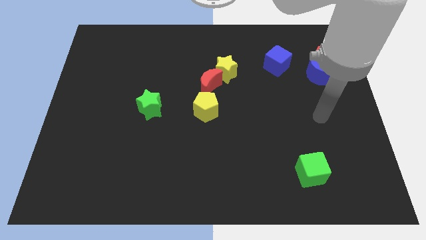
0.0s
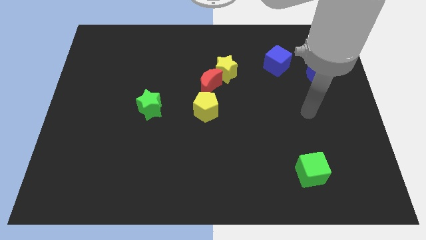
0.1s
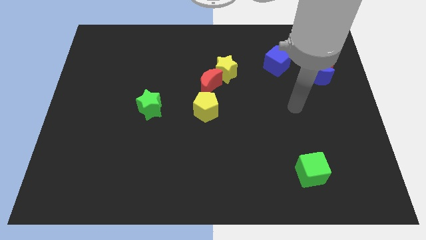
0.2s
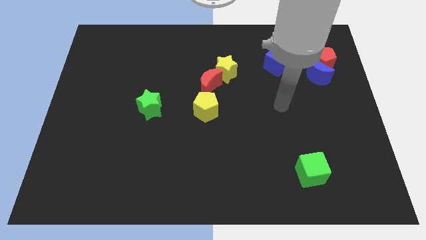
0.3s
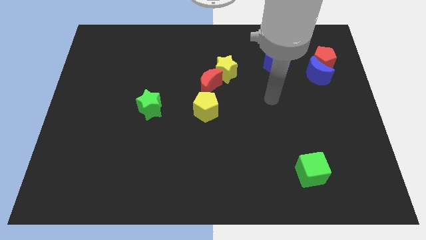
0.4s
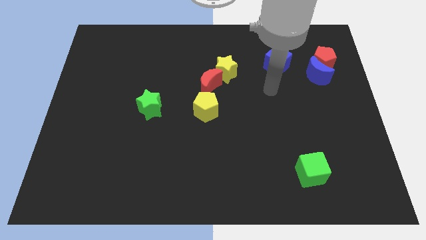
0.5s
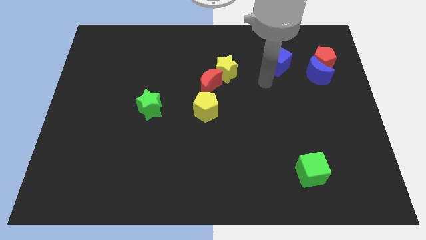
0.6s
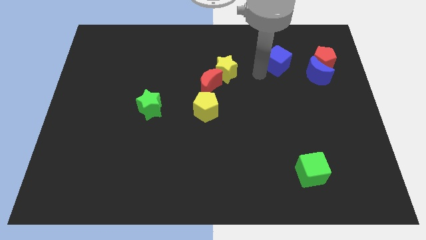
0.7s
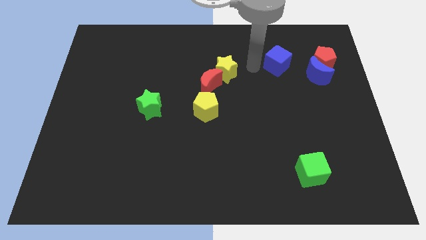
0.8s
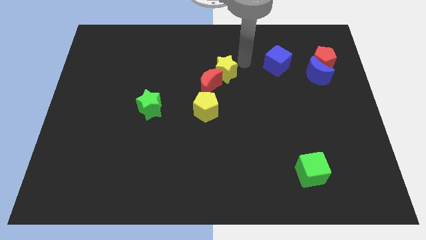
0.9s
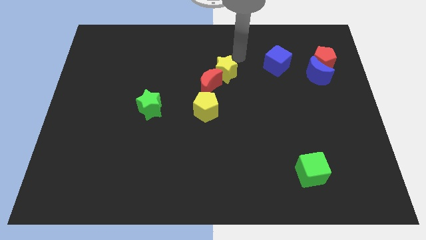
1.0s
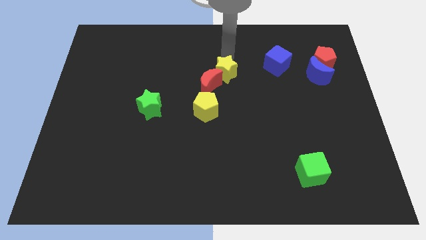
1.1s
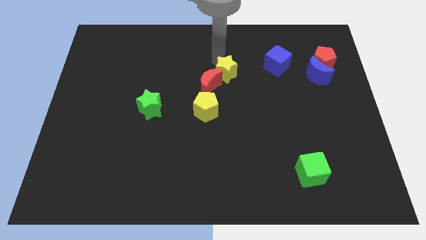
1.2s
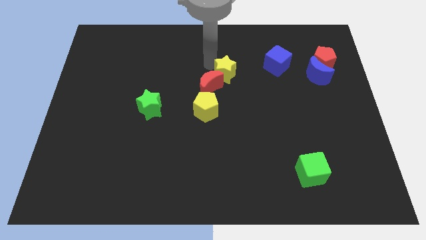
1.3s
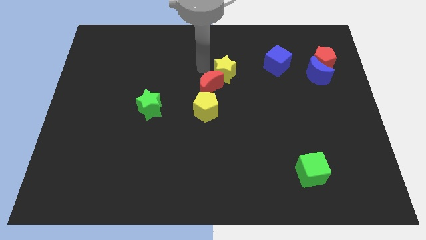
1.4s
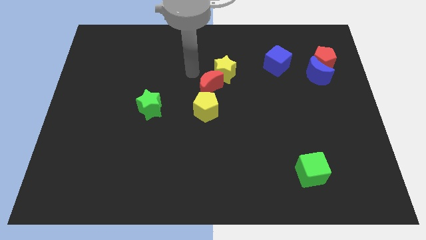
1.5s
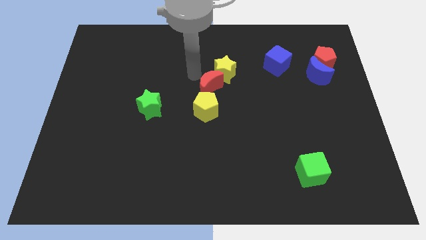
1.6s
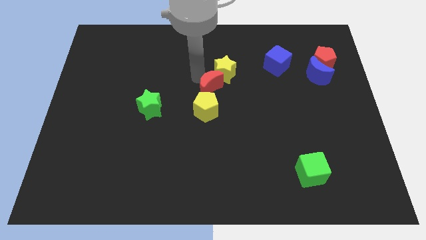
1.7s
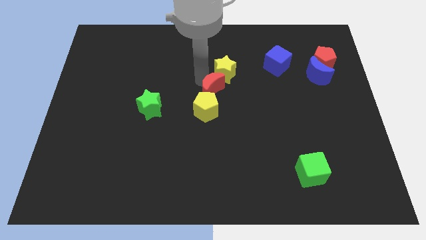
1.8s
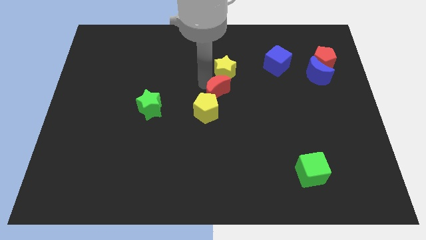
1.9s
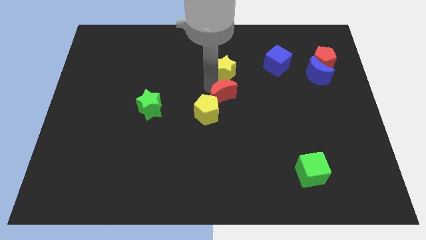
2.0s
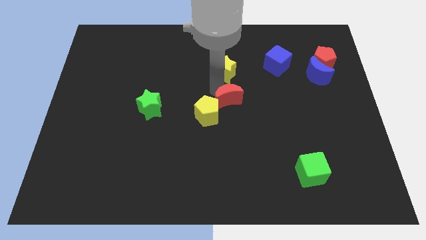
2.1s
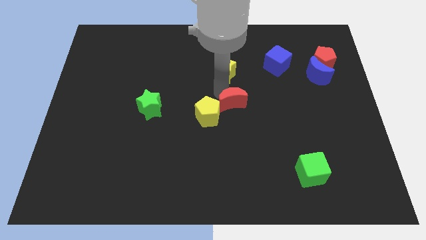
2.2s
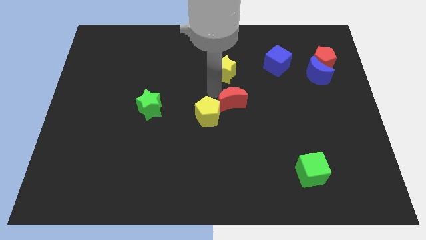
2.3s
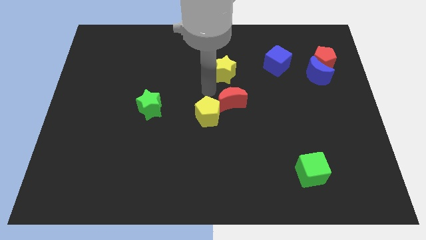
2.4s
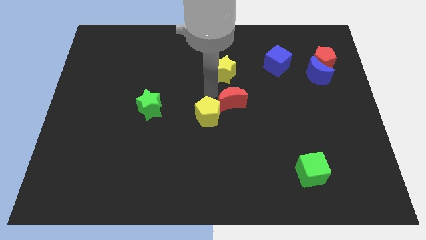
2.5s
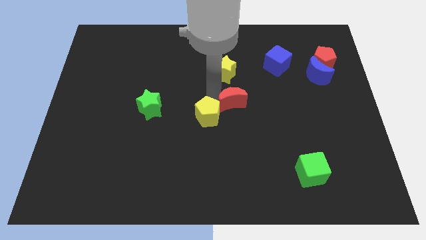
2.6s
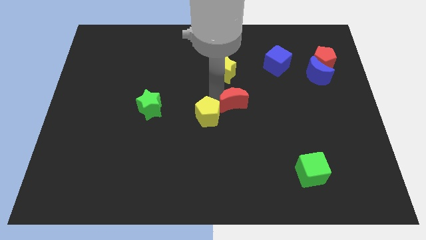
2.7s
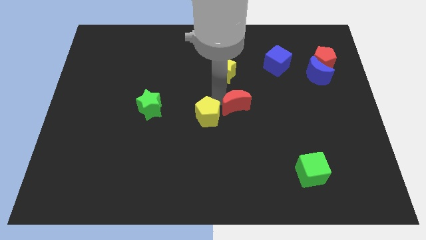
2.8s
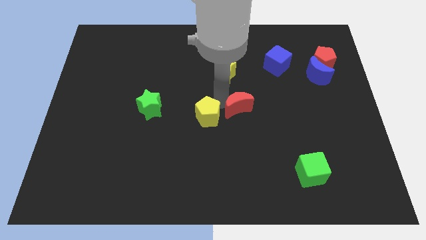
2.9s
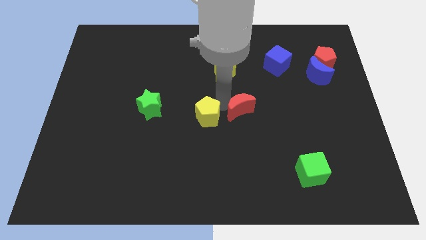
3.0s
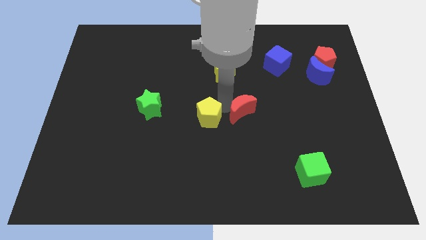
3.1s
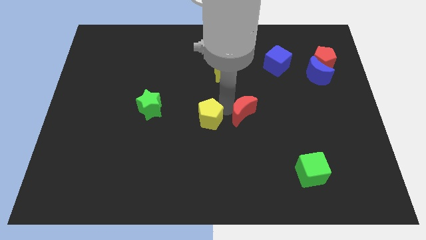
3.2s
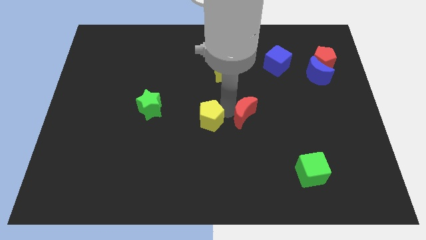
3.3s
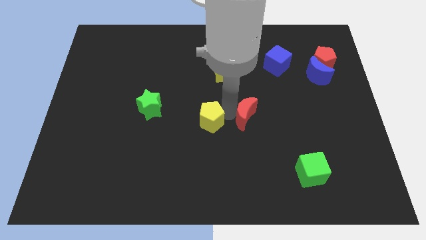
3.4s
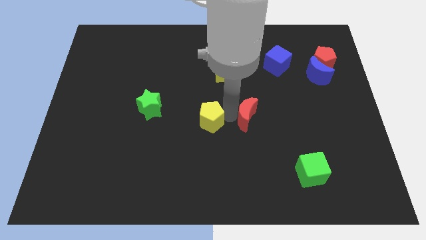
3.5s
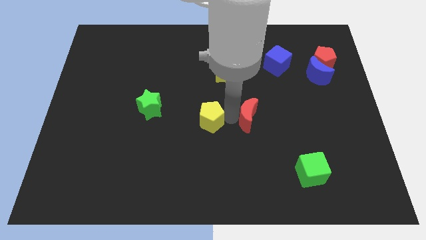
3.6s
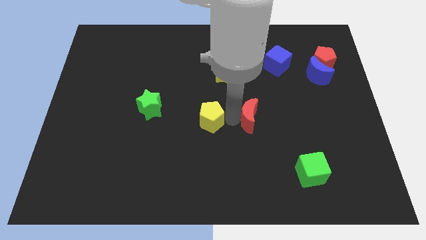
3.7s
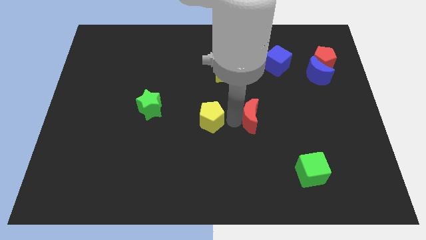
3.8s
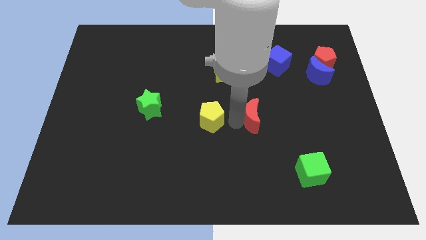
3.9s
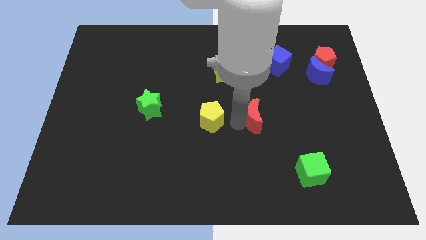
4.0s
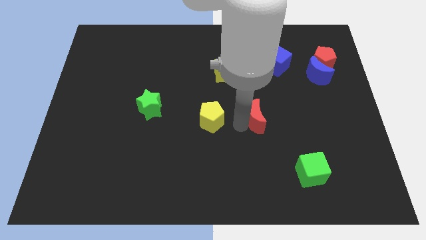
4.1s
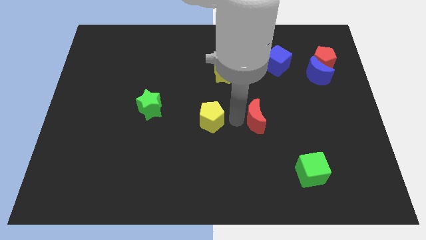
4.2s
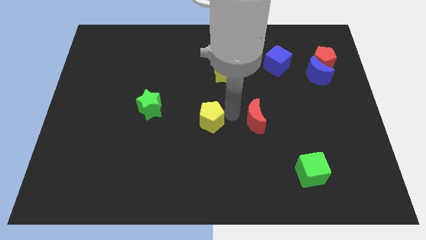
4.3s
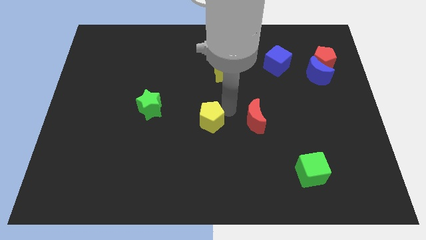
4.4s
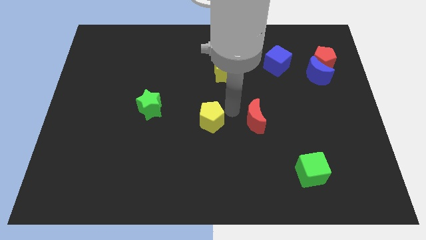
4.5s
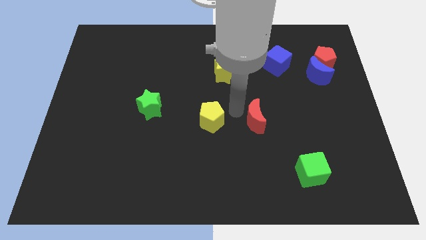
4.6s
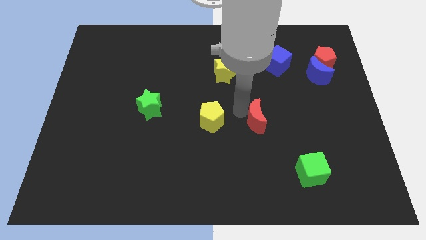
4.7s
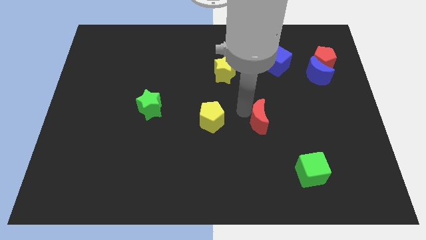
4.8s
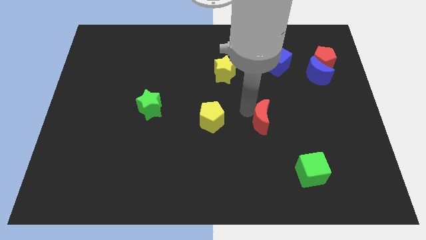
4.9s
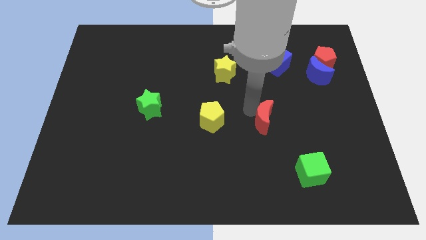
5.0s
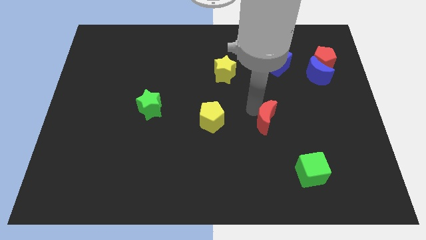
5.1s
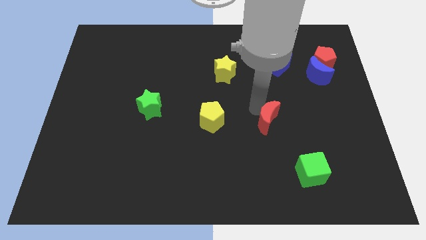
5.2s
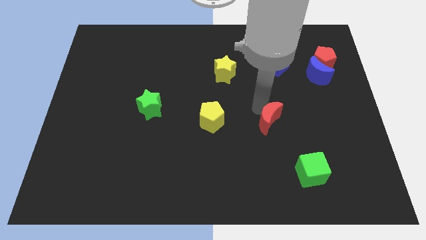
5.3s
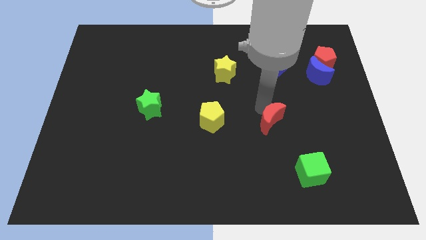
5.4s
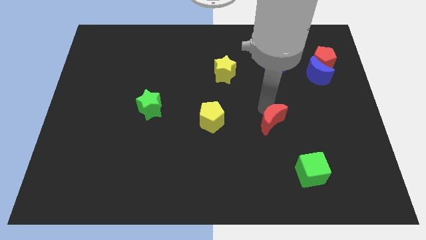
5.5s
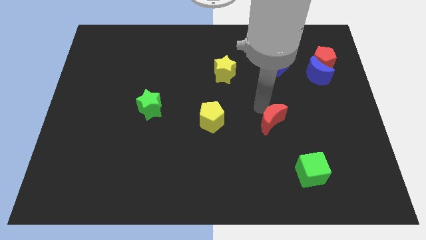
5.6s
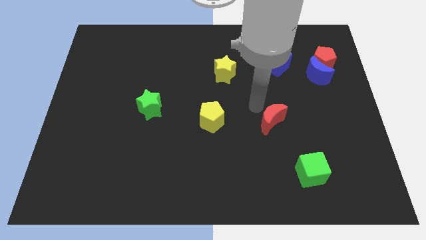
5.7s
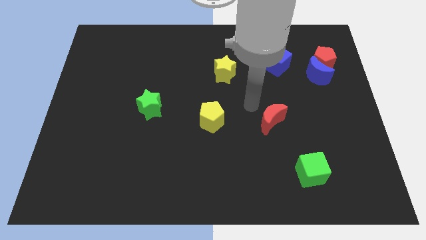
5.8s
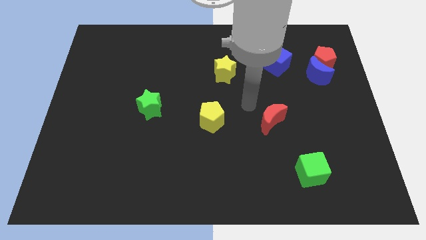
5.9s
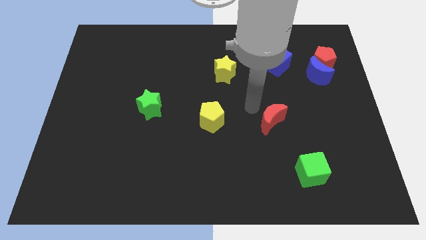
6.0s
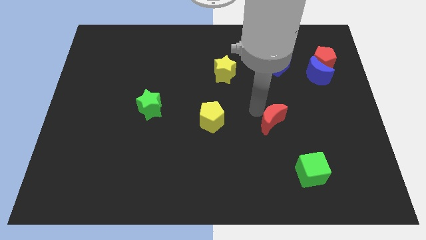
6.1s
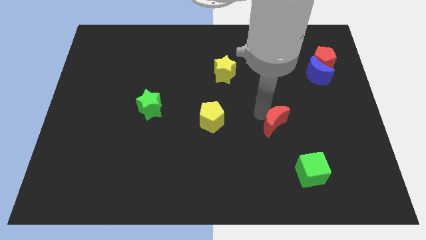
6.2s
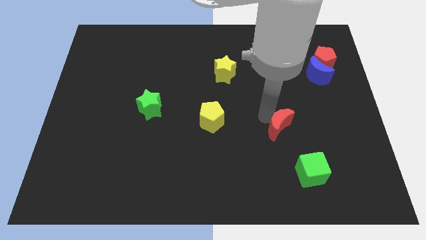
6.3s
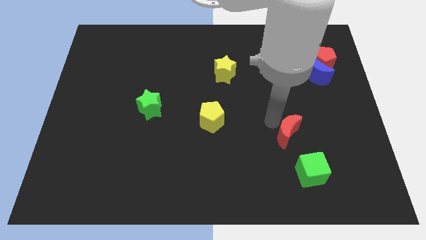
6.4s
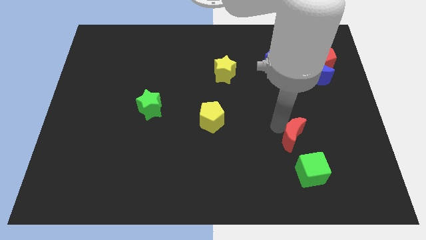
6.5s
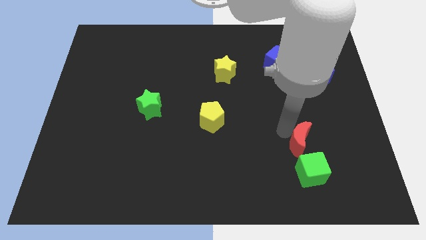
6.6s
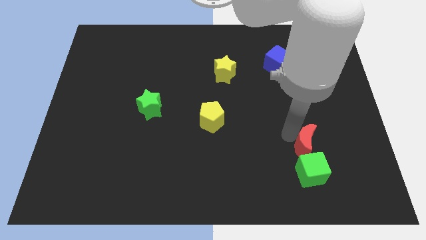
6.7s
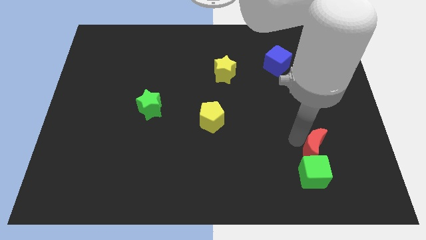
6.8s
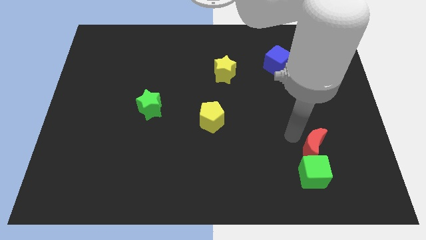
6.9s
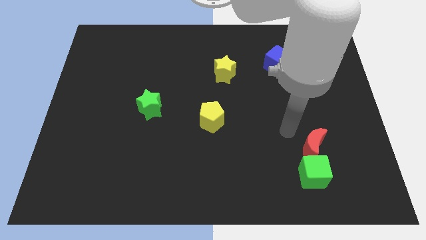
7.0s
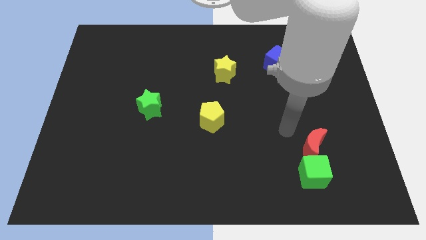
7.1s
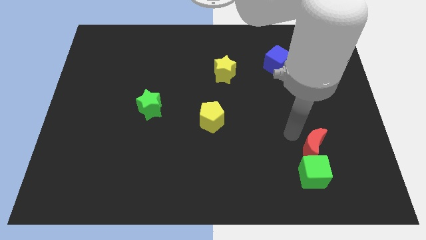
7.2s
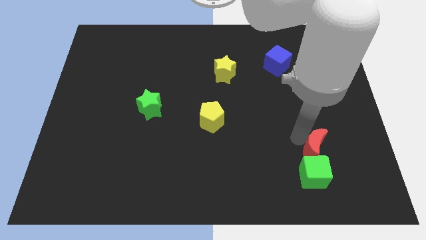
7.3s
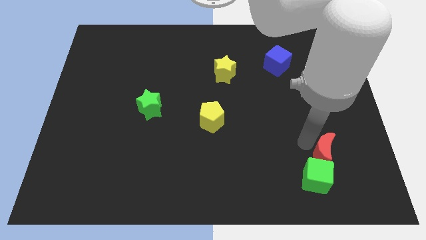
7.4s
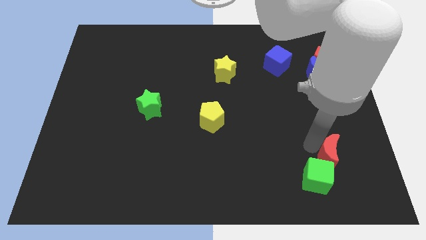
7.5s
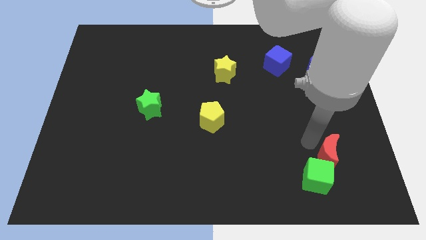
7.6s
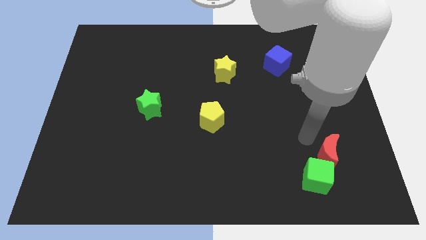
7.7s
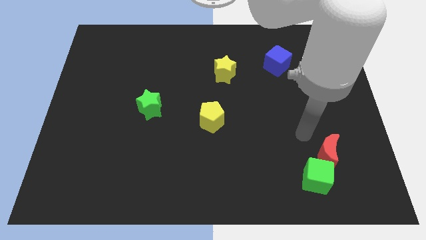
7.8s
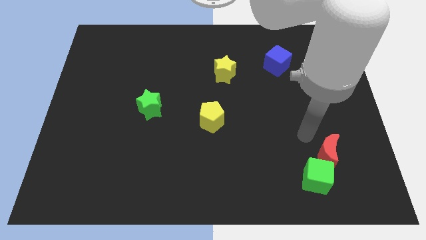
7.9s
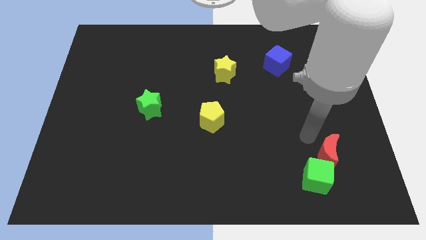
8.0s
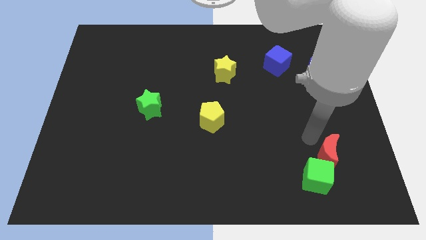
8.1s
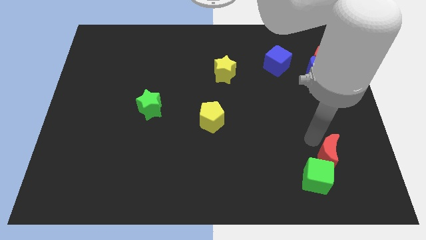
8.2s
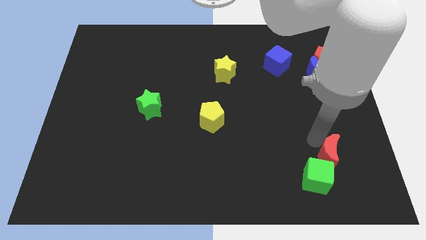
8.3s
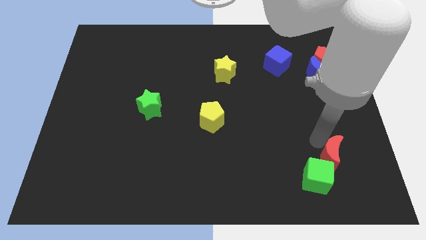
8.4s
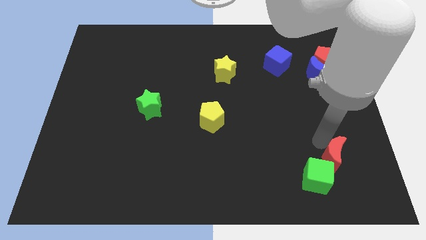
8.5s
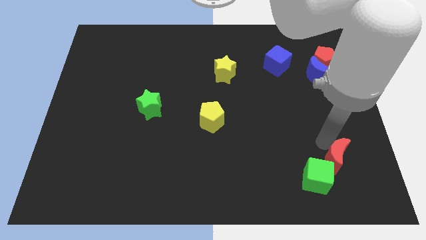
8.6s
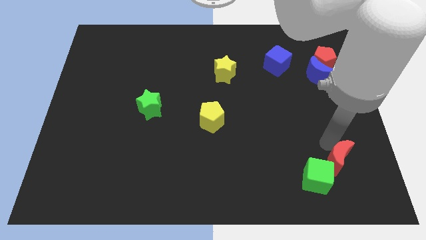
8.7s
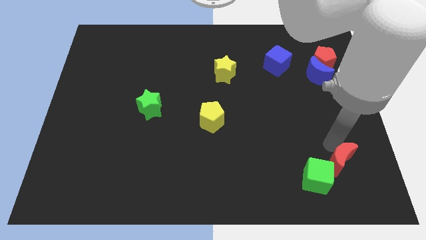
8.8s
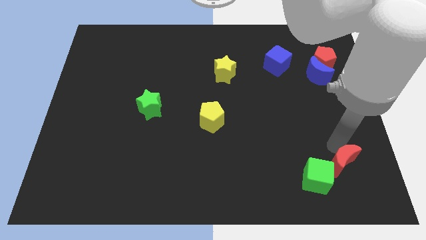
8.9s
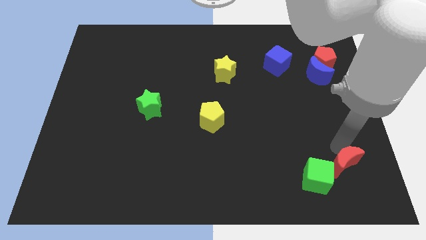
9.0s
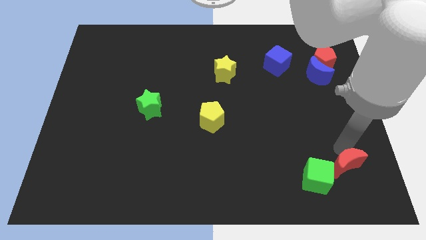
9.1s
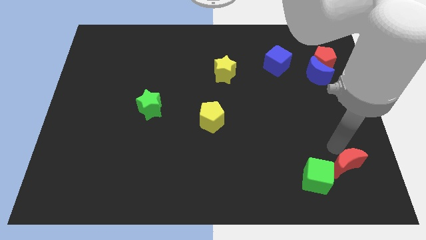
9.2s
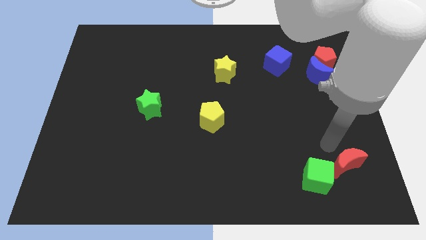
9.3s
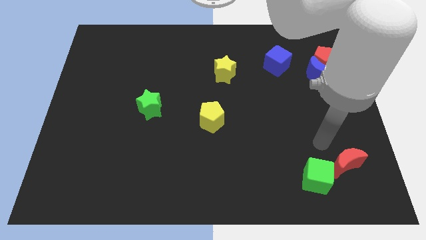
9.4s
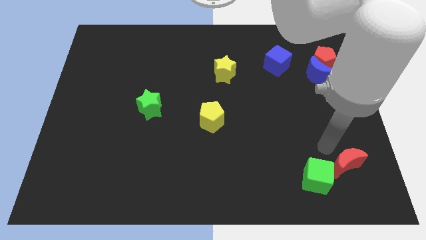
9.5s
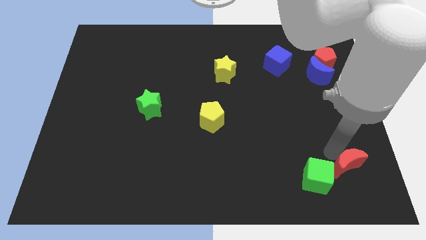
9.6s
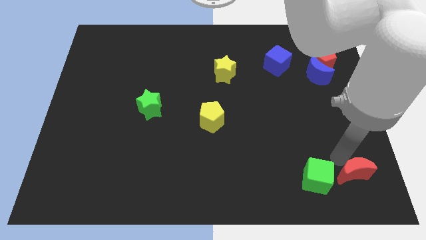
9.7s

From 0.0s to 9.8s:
move the red moon to the bottom right of the board
